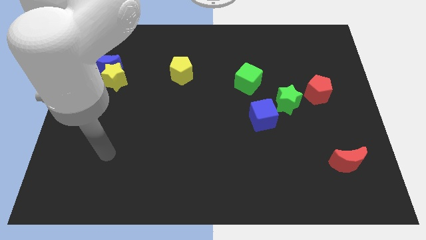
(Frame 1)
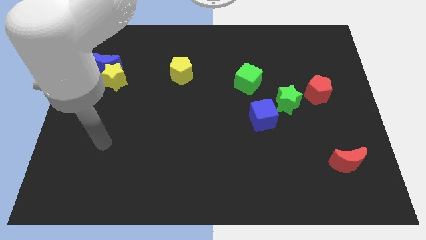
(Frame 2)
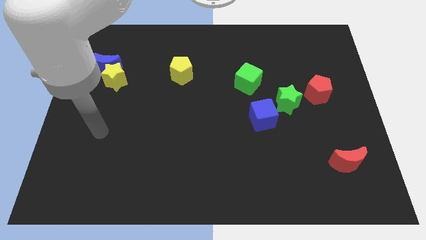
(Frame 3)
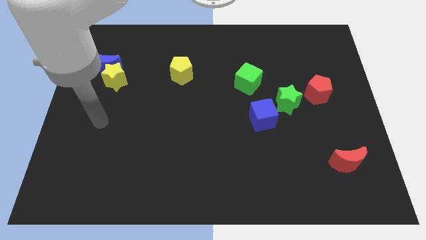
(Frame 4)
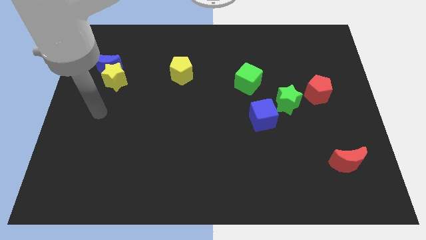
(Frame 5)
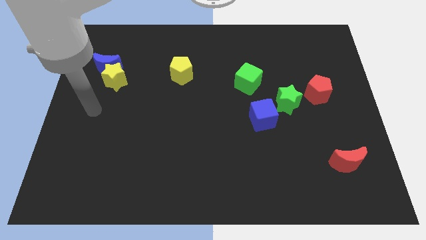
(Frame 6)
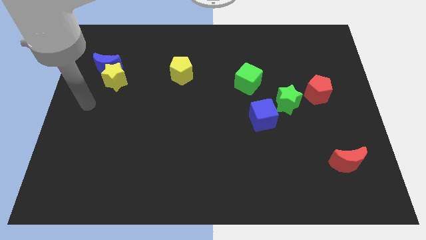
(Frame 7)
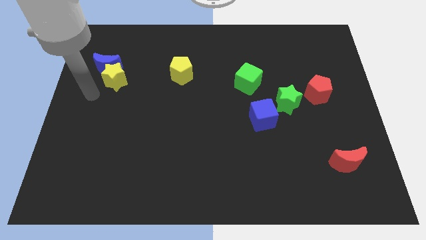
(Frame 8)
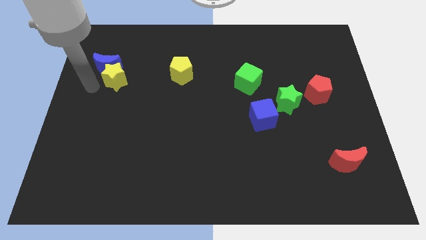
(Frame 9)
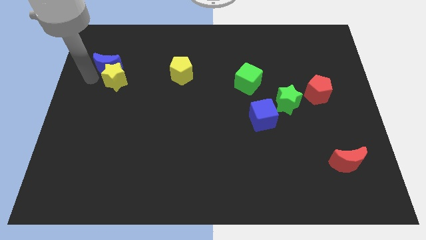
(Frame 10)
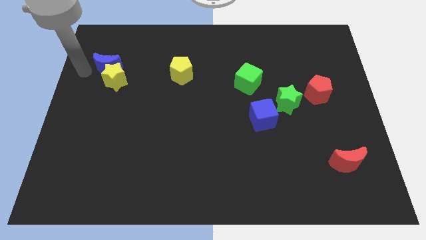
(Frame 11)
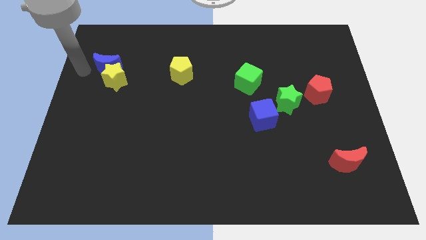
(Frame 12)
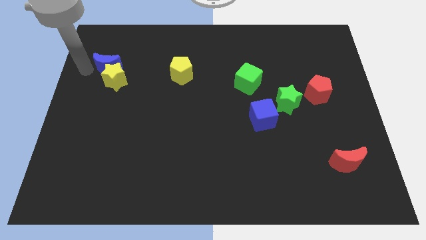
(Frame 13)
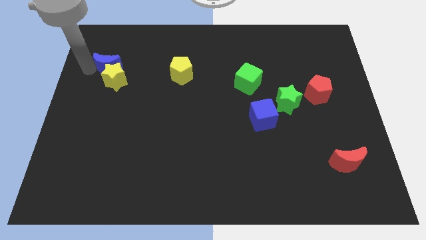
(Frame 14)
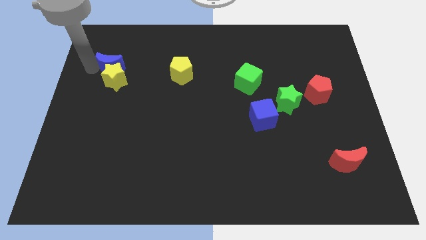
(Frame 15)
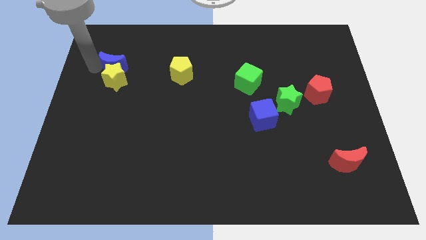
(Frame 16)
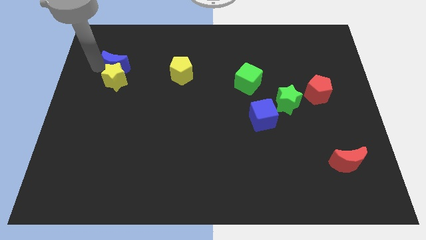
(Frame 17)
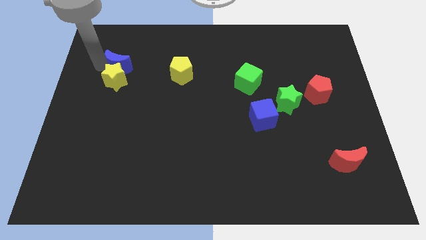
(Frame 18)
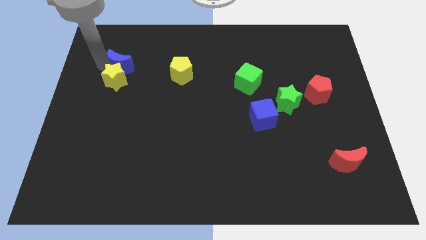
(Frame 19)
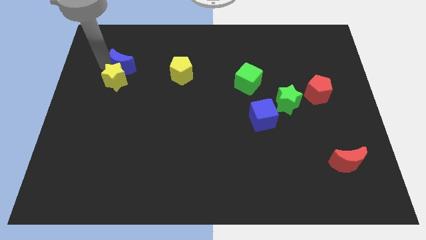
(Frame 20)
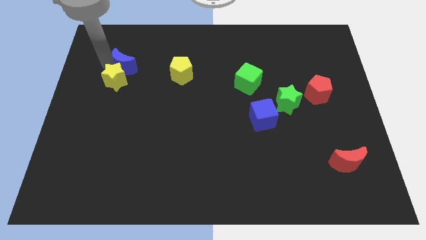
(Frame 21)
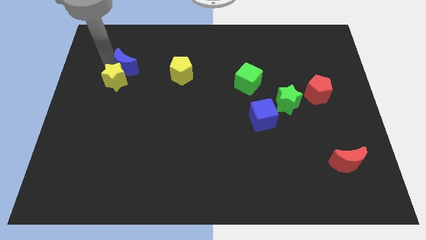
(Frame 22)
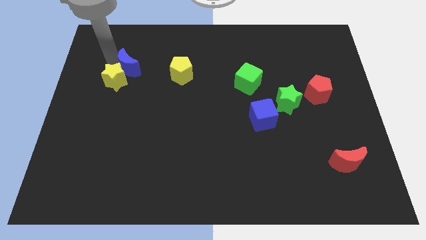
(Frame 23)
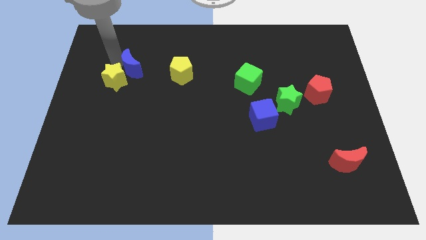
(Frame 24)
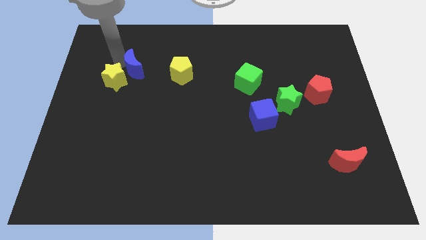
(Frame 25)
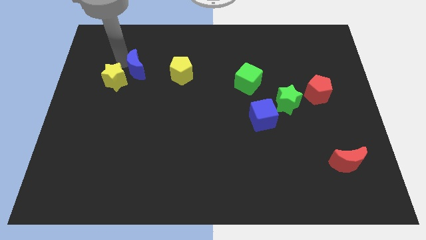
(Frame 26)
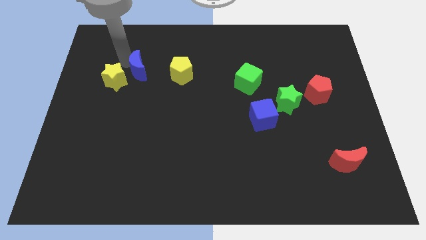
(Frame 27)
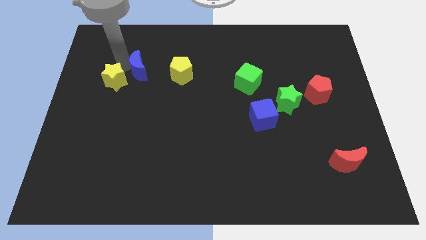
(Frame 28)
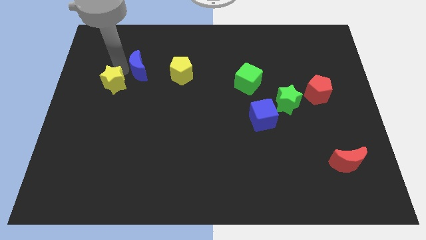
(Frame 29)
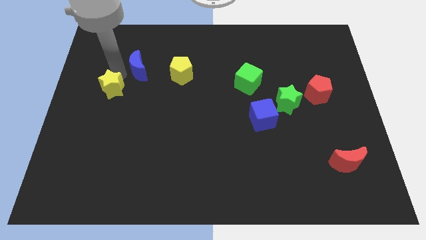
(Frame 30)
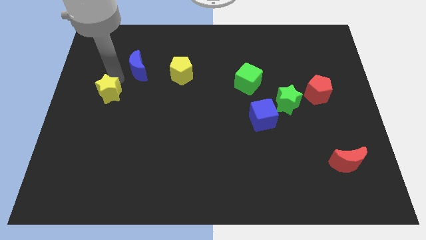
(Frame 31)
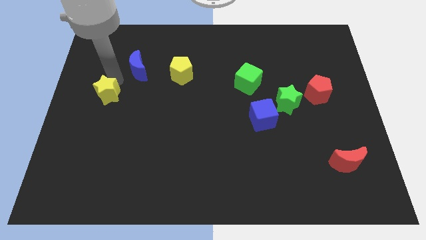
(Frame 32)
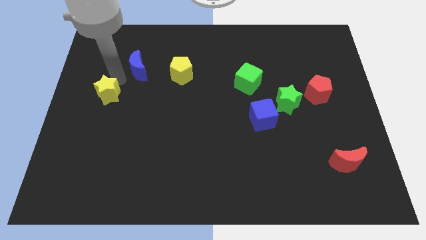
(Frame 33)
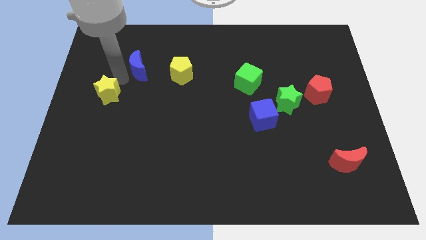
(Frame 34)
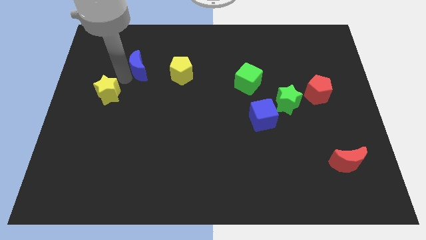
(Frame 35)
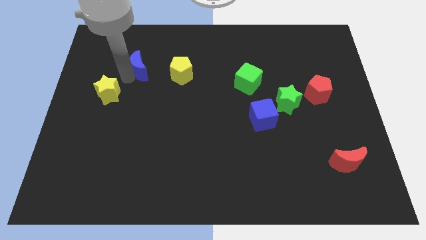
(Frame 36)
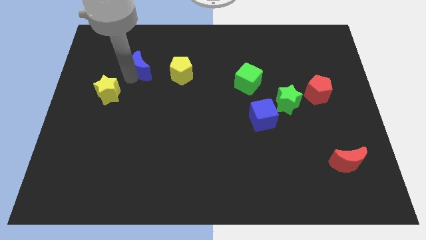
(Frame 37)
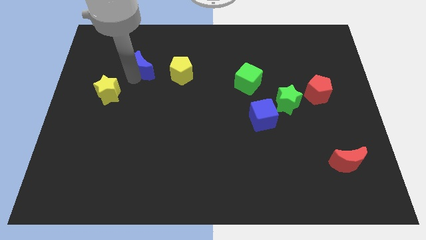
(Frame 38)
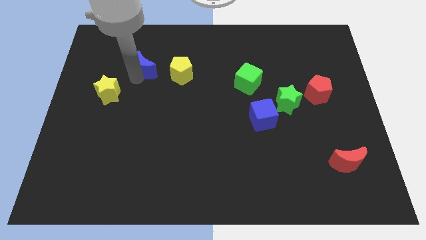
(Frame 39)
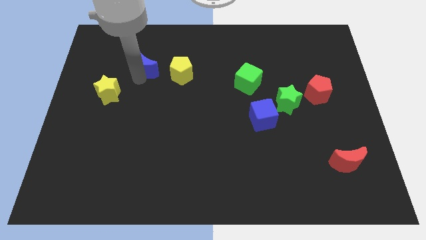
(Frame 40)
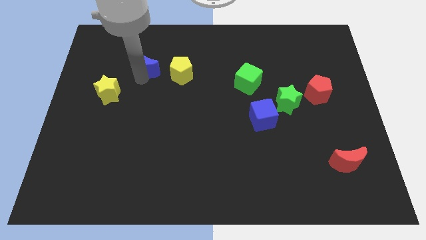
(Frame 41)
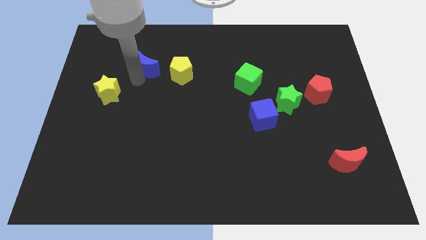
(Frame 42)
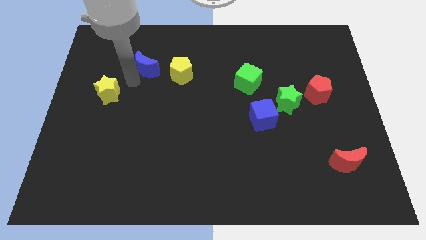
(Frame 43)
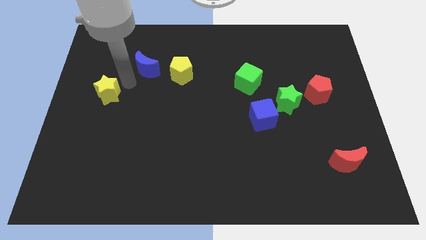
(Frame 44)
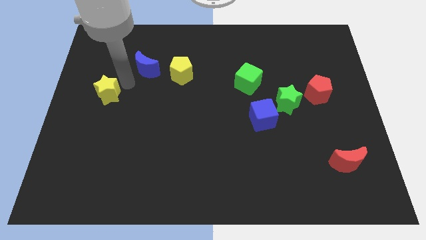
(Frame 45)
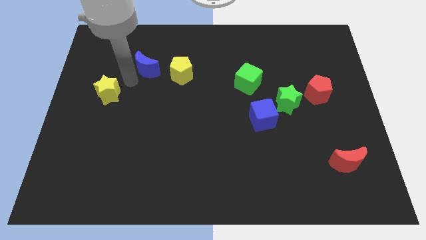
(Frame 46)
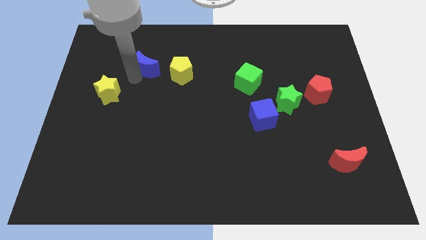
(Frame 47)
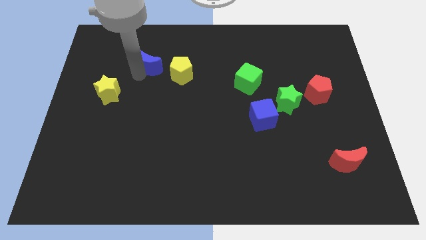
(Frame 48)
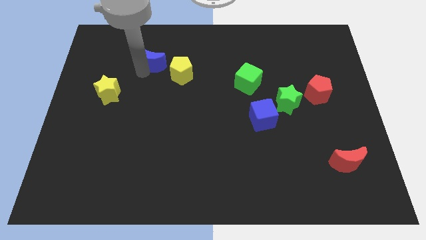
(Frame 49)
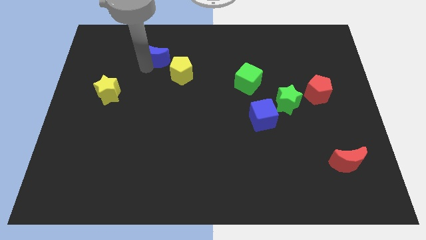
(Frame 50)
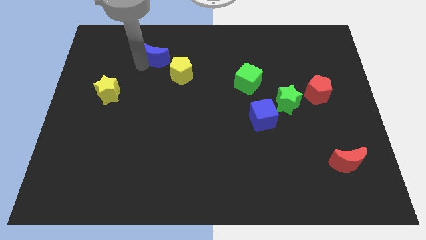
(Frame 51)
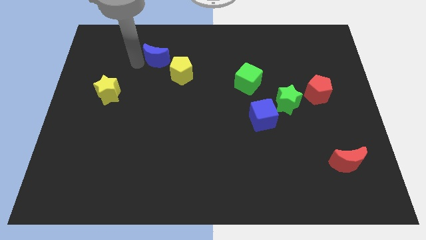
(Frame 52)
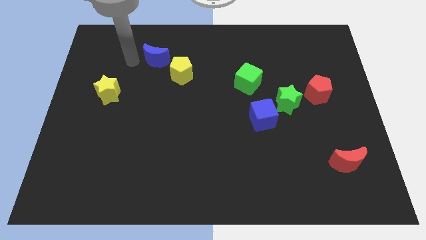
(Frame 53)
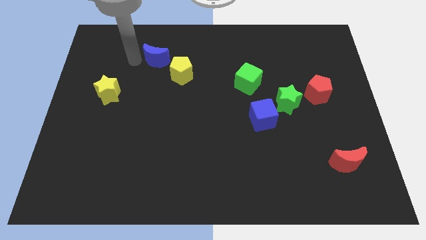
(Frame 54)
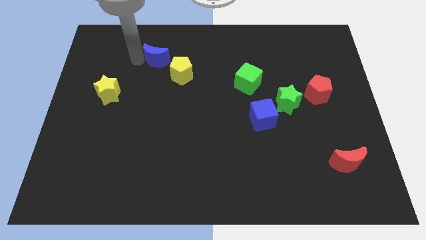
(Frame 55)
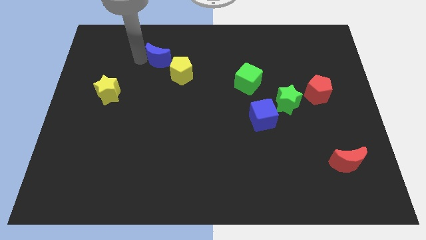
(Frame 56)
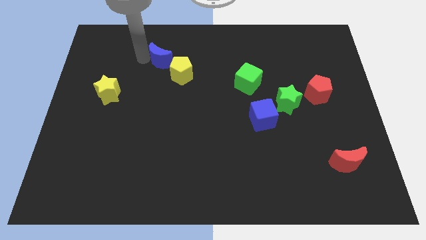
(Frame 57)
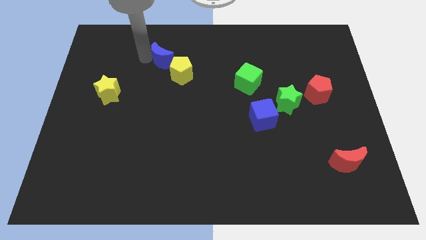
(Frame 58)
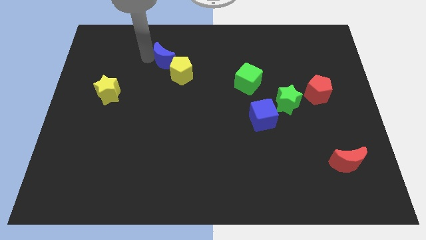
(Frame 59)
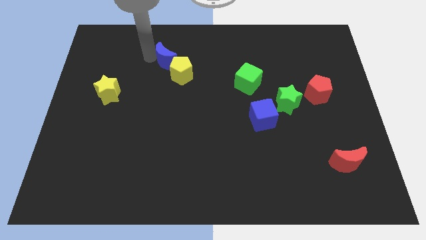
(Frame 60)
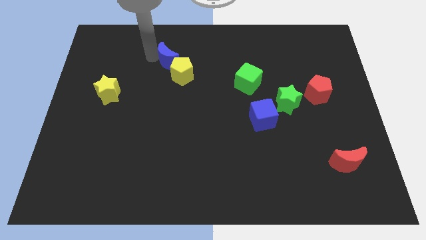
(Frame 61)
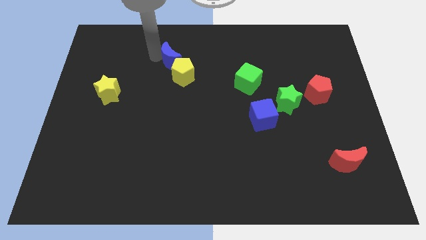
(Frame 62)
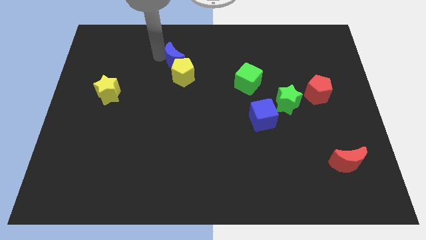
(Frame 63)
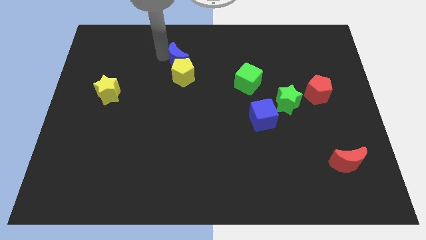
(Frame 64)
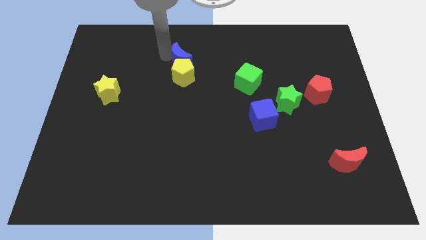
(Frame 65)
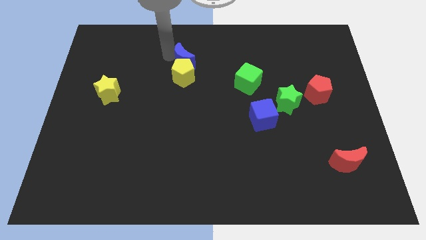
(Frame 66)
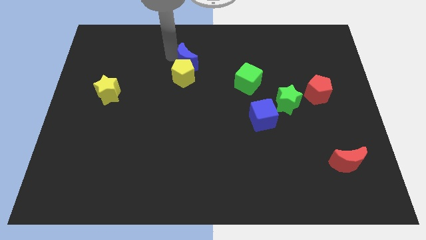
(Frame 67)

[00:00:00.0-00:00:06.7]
push the blue moon right

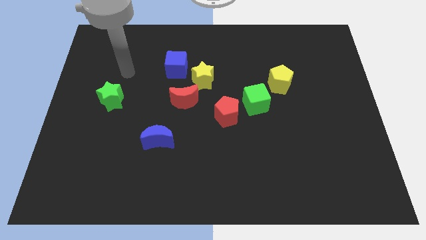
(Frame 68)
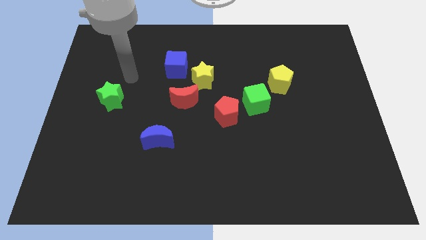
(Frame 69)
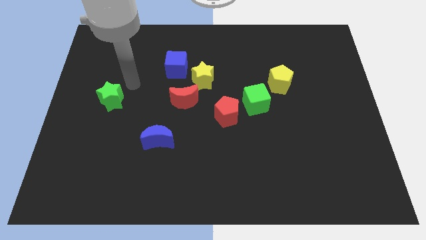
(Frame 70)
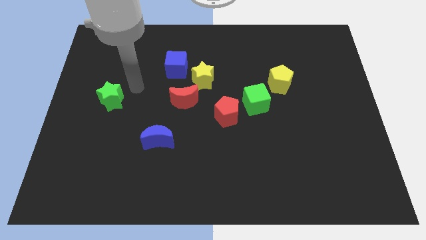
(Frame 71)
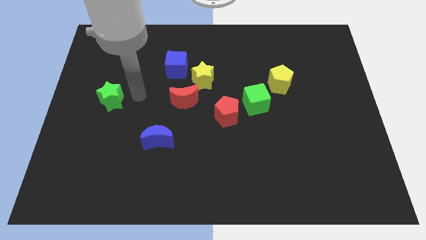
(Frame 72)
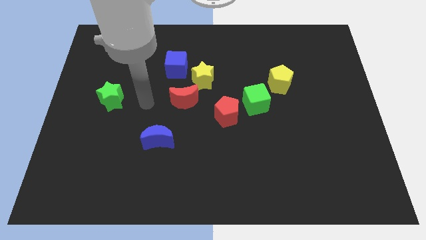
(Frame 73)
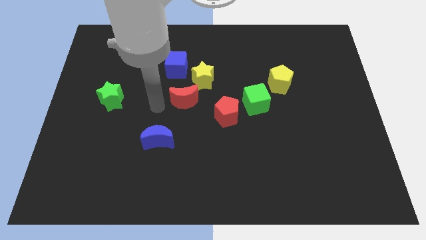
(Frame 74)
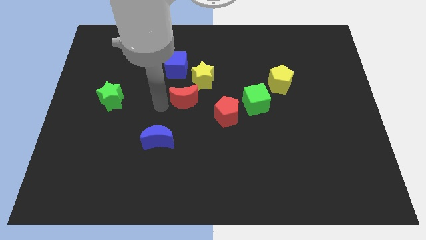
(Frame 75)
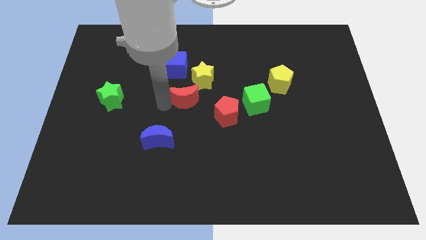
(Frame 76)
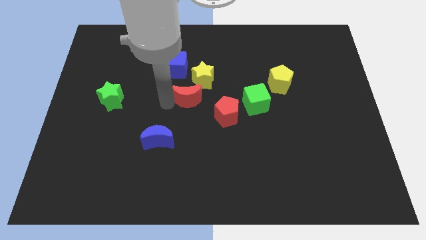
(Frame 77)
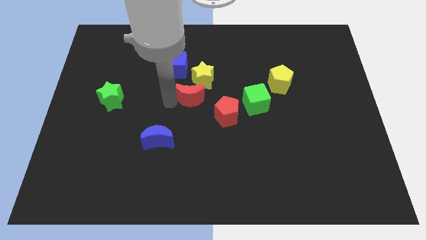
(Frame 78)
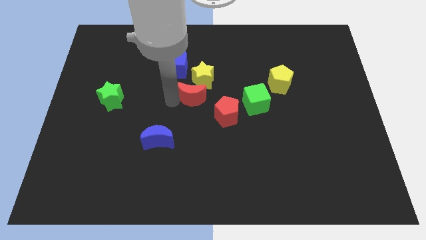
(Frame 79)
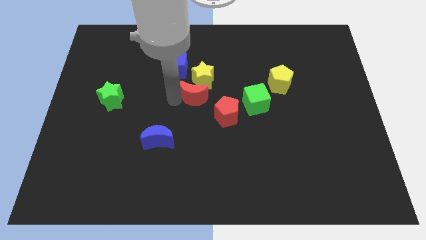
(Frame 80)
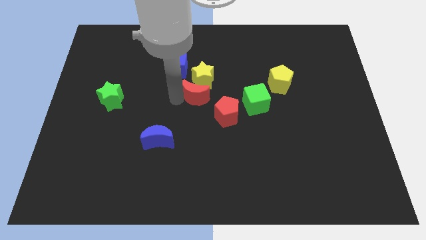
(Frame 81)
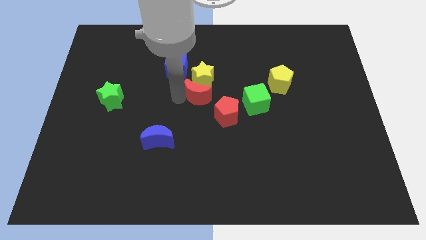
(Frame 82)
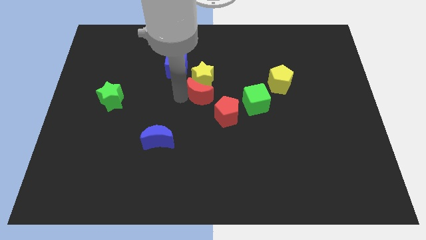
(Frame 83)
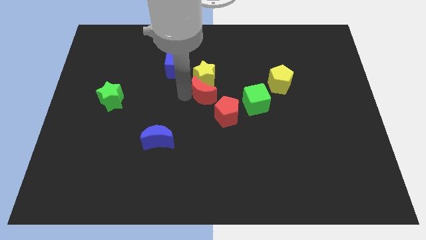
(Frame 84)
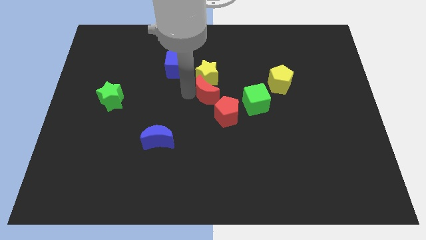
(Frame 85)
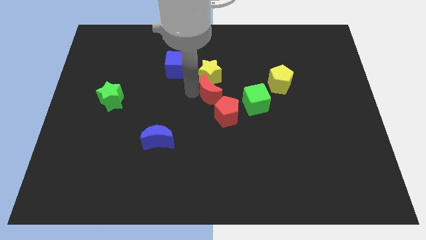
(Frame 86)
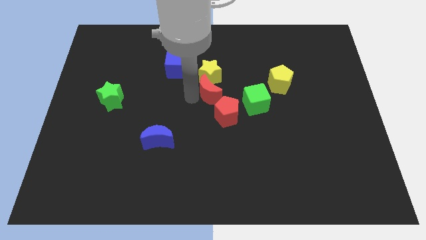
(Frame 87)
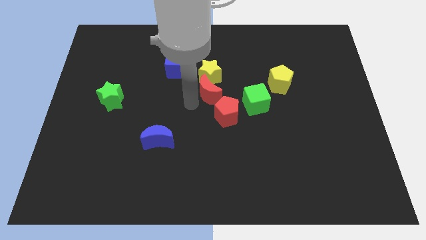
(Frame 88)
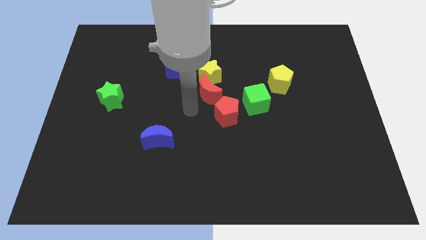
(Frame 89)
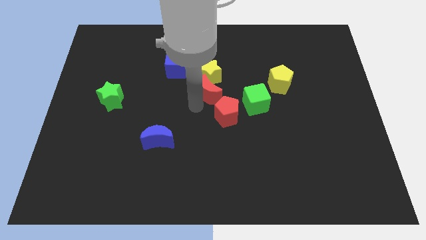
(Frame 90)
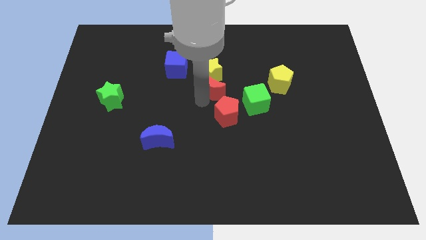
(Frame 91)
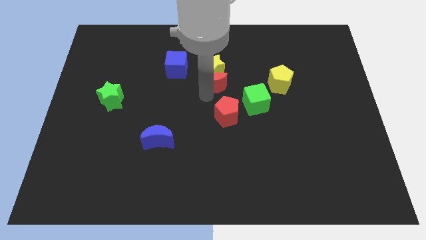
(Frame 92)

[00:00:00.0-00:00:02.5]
slide the red moon a bit upwards and then to the right
